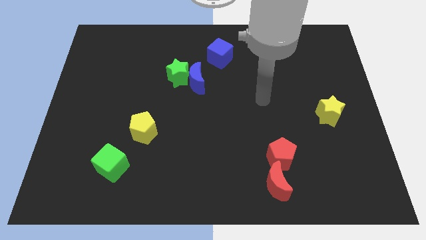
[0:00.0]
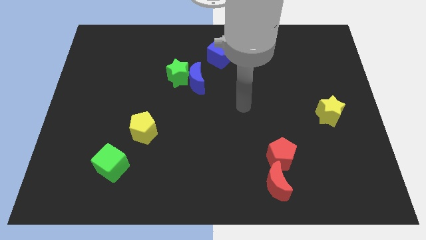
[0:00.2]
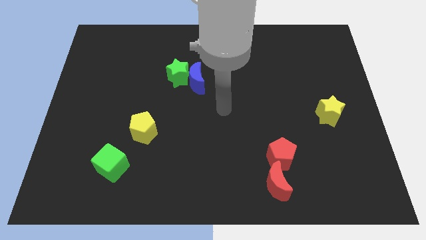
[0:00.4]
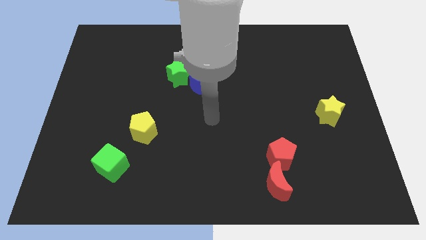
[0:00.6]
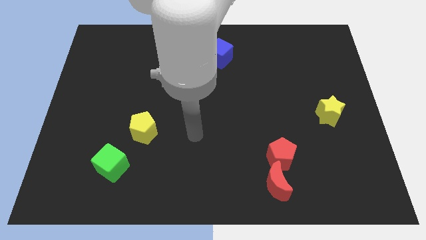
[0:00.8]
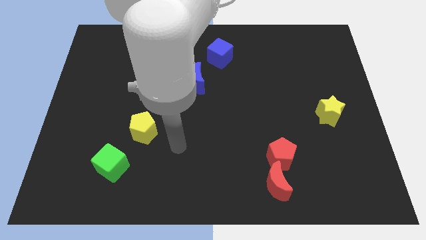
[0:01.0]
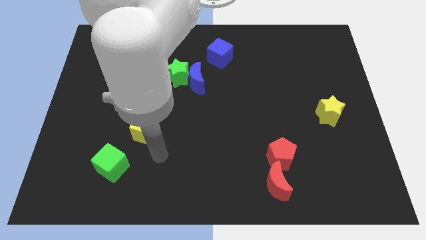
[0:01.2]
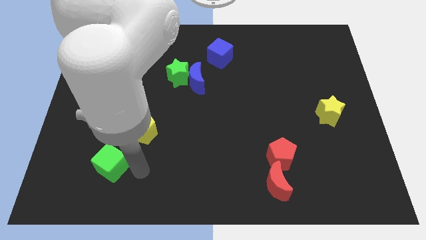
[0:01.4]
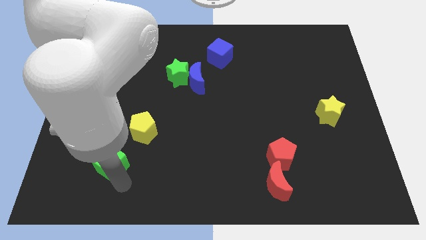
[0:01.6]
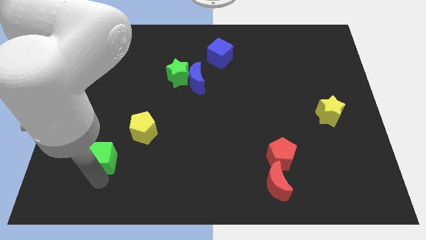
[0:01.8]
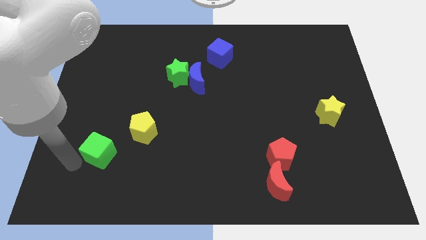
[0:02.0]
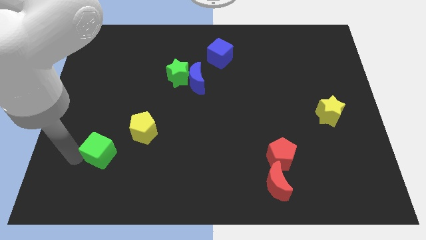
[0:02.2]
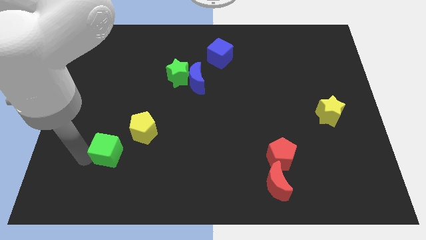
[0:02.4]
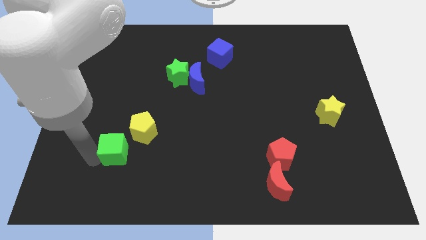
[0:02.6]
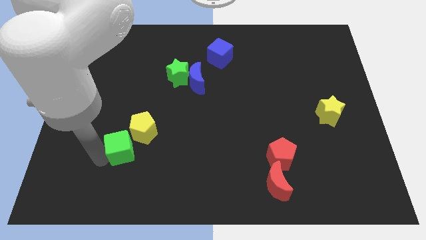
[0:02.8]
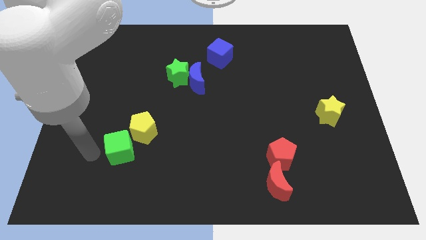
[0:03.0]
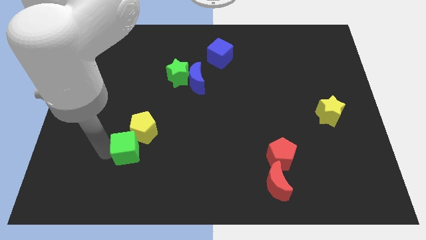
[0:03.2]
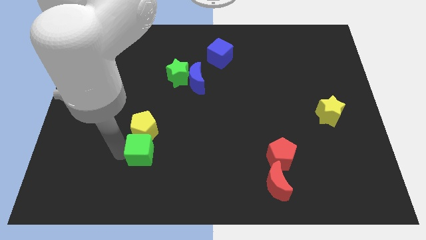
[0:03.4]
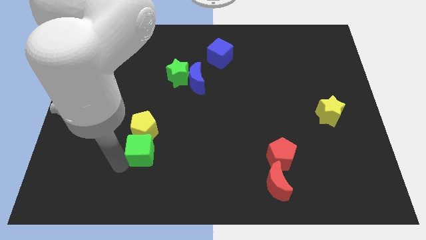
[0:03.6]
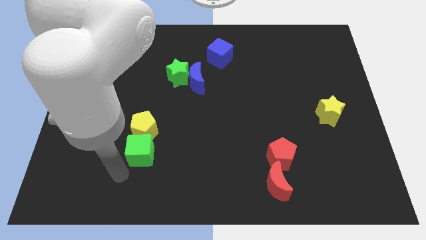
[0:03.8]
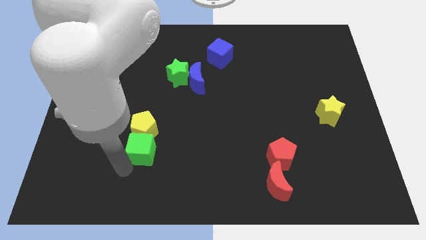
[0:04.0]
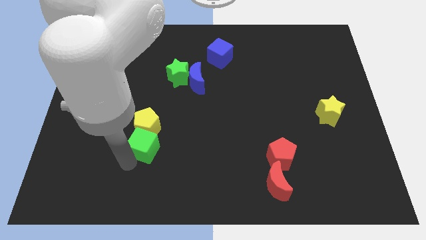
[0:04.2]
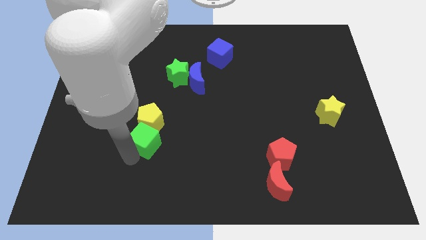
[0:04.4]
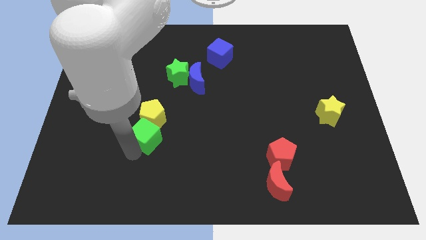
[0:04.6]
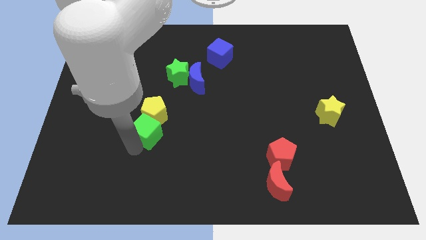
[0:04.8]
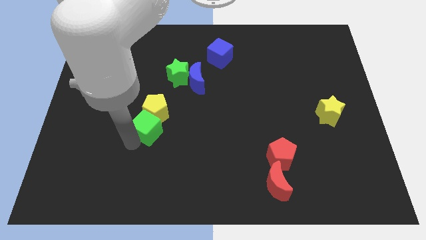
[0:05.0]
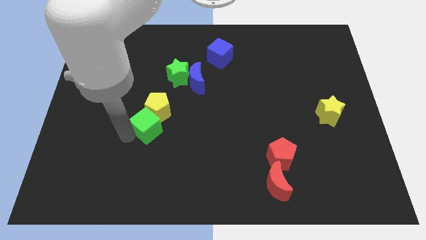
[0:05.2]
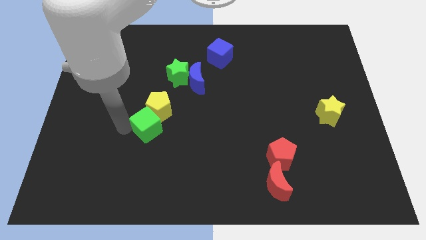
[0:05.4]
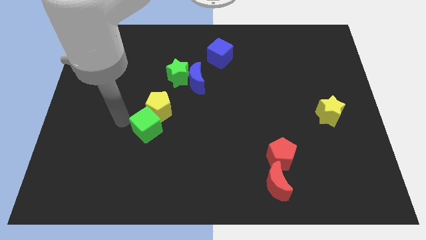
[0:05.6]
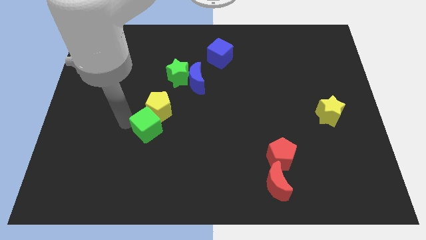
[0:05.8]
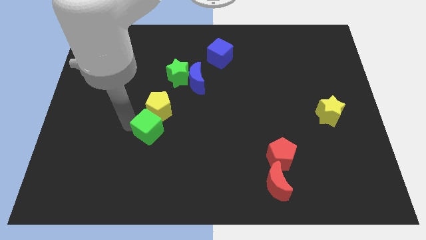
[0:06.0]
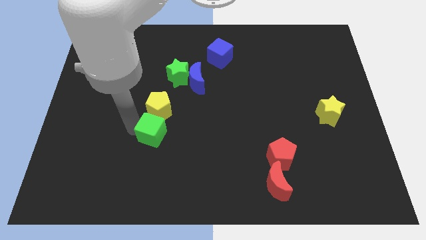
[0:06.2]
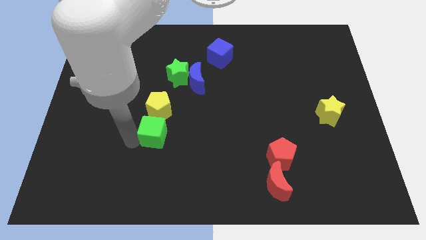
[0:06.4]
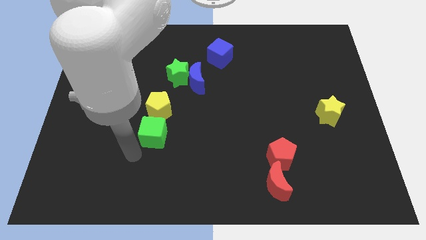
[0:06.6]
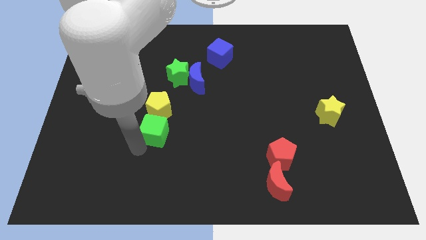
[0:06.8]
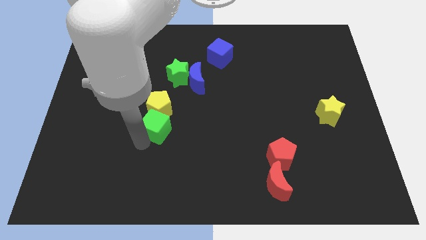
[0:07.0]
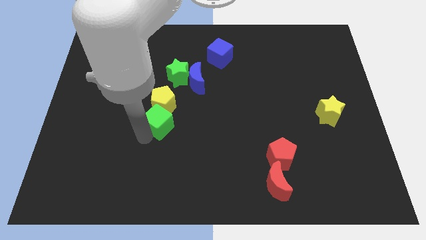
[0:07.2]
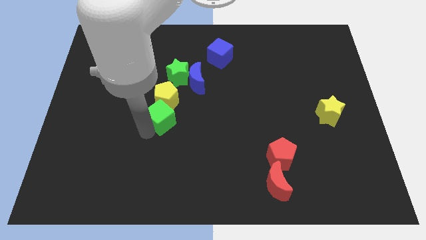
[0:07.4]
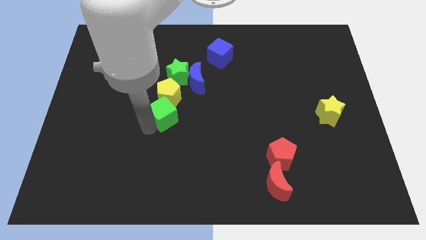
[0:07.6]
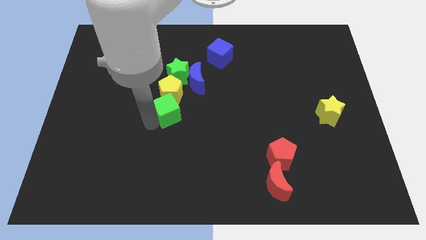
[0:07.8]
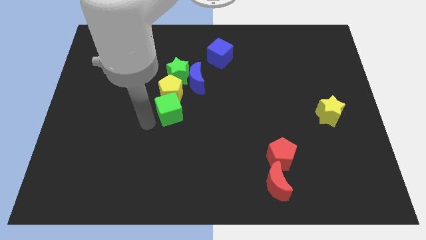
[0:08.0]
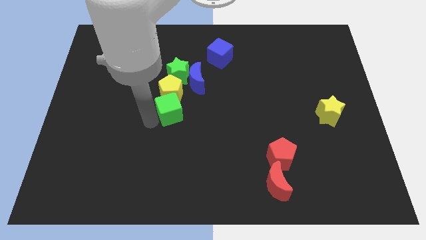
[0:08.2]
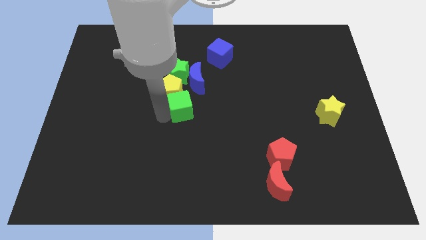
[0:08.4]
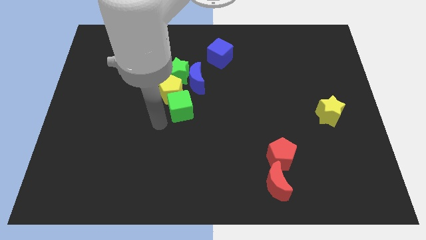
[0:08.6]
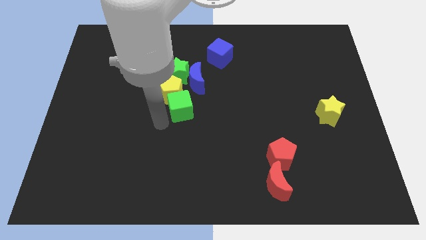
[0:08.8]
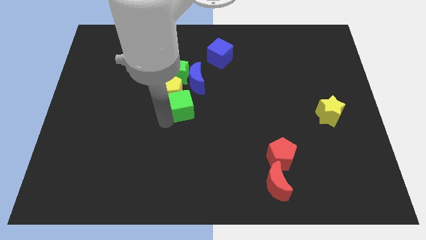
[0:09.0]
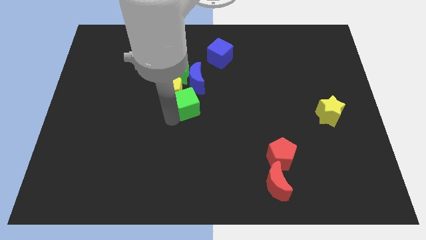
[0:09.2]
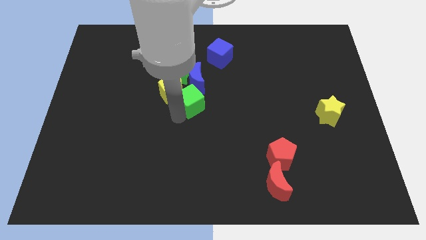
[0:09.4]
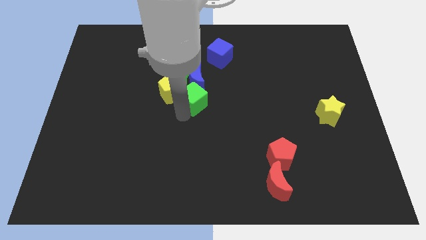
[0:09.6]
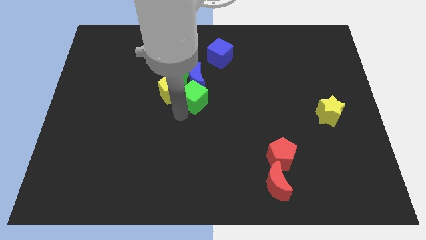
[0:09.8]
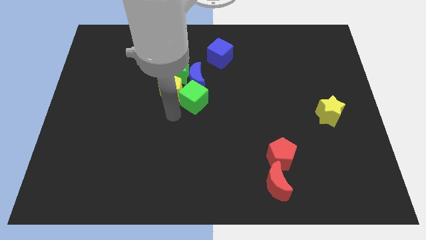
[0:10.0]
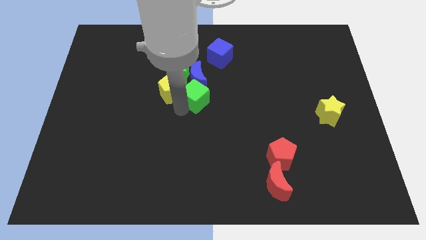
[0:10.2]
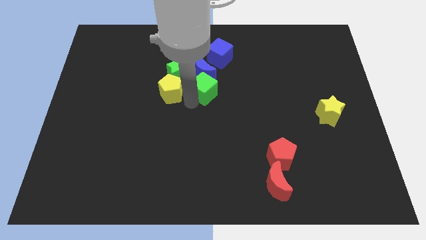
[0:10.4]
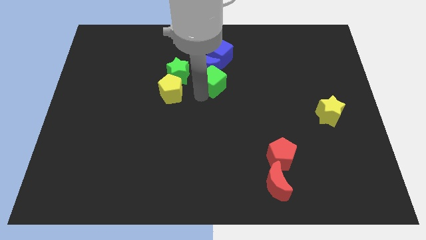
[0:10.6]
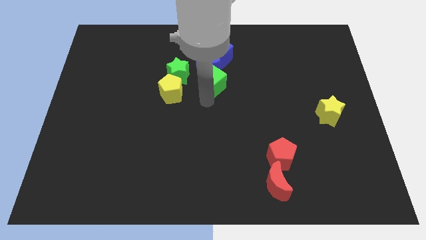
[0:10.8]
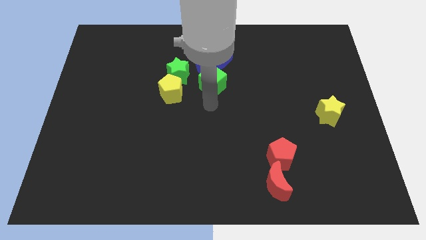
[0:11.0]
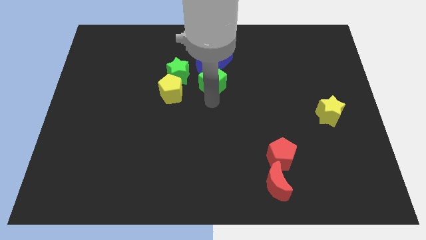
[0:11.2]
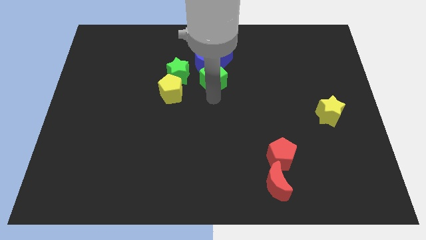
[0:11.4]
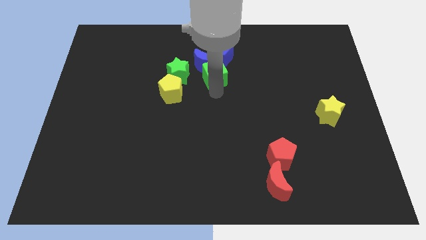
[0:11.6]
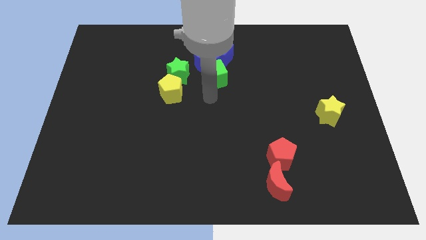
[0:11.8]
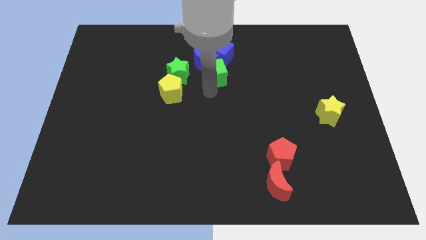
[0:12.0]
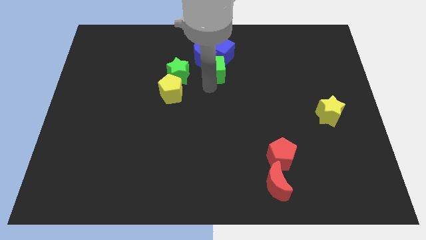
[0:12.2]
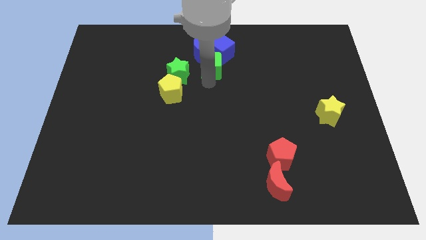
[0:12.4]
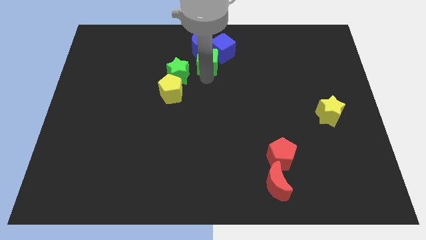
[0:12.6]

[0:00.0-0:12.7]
push the green cube next to the blue cube
